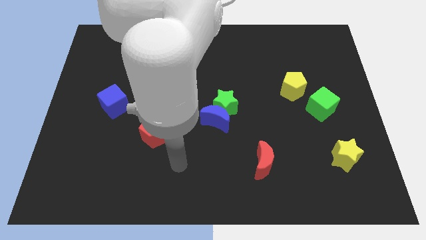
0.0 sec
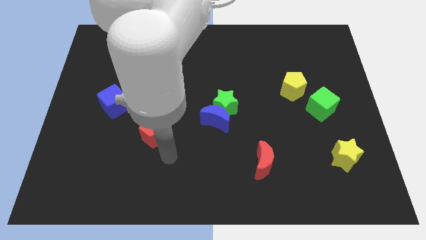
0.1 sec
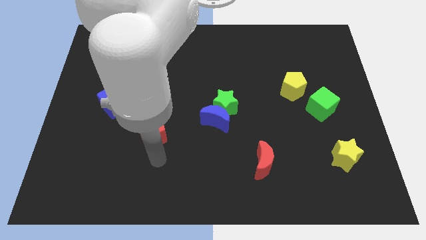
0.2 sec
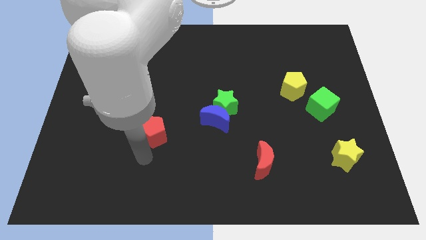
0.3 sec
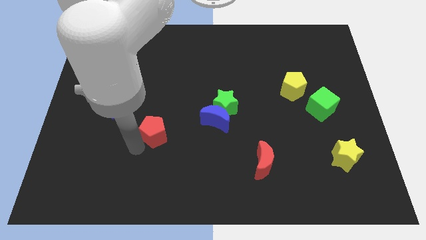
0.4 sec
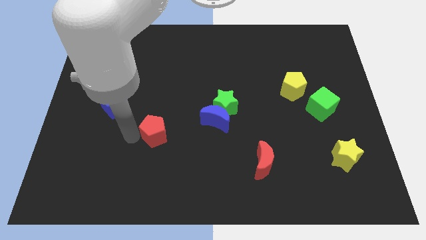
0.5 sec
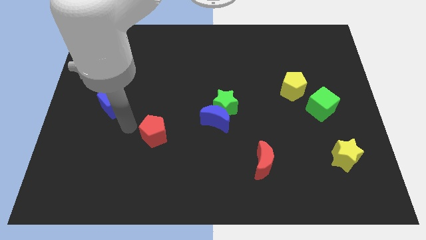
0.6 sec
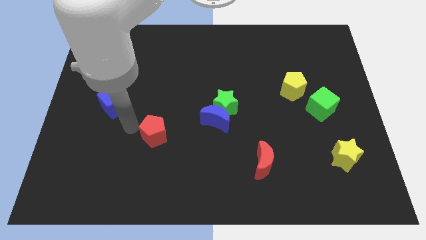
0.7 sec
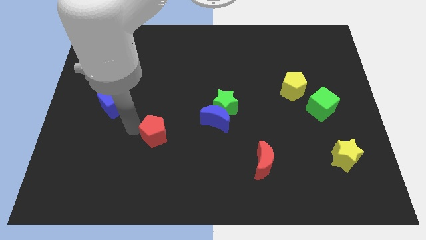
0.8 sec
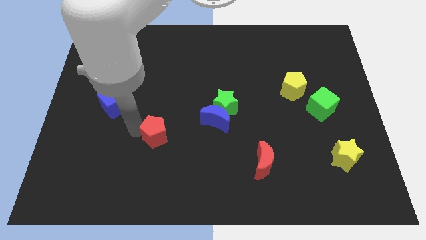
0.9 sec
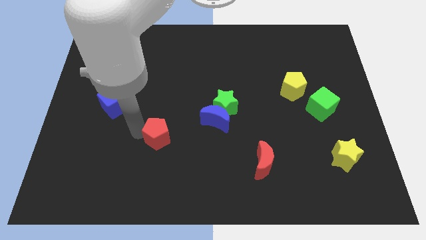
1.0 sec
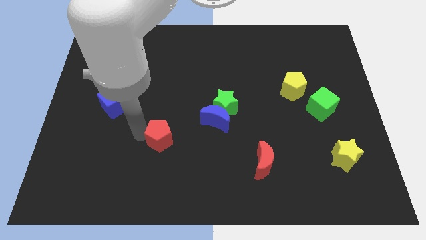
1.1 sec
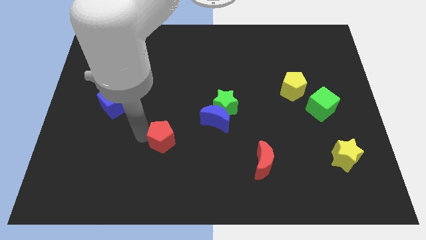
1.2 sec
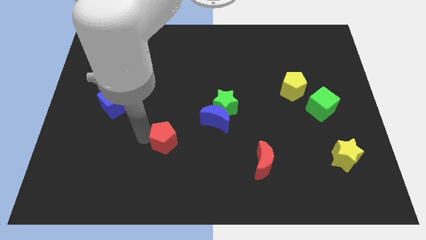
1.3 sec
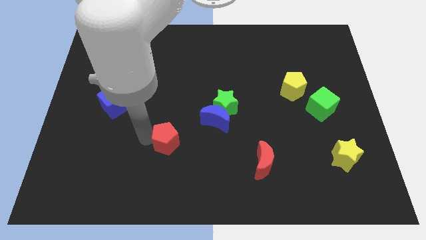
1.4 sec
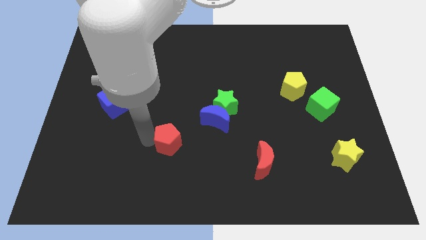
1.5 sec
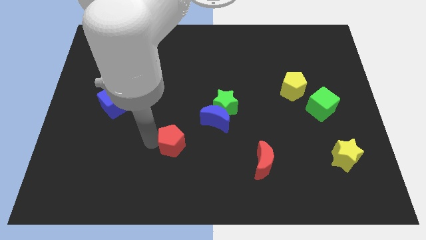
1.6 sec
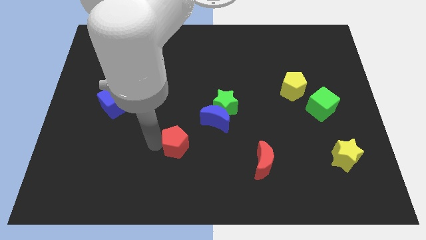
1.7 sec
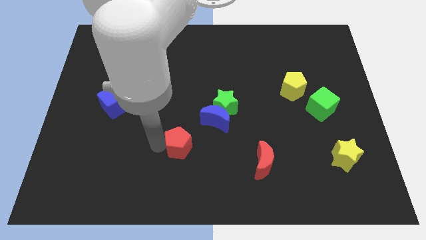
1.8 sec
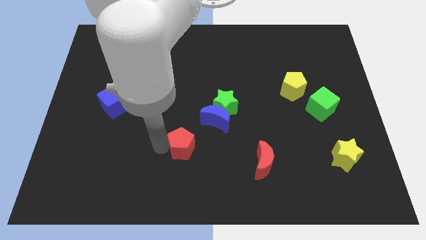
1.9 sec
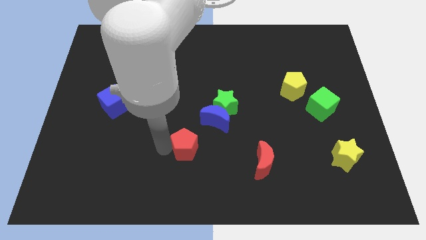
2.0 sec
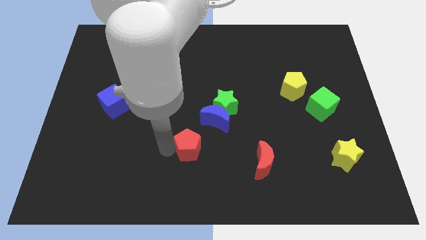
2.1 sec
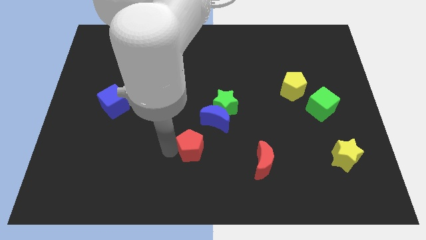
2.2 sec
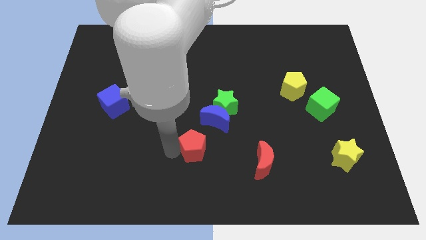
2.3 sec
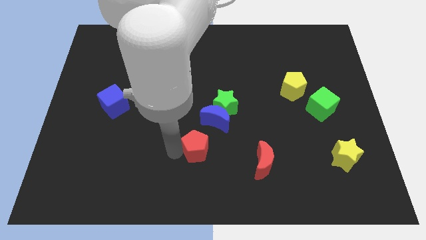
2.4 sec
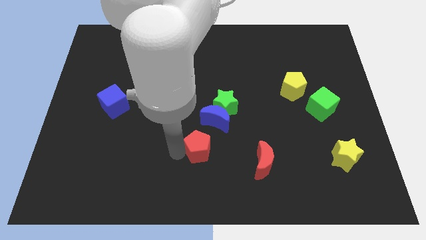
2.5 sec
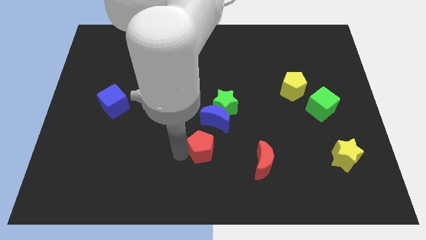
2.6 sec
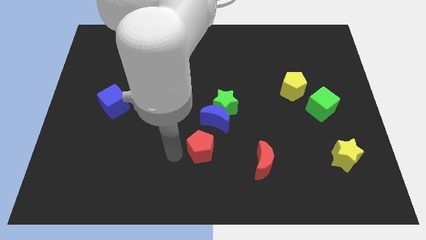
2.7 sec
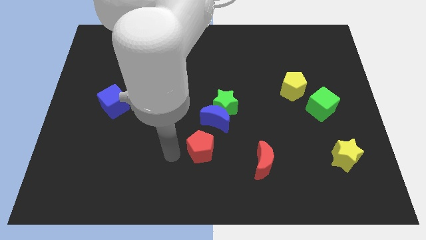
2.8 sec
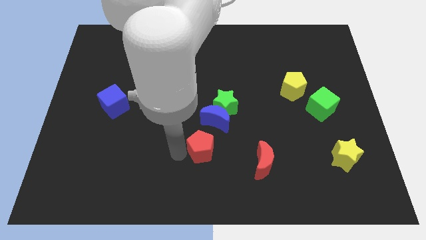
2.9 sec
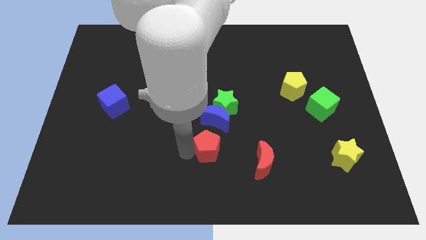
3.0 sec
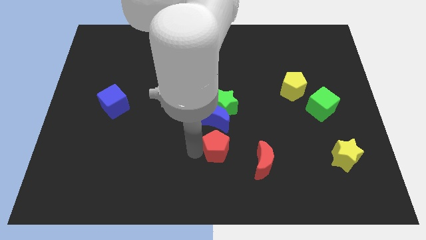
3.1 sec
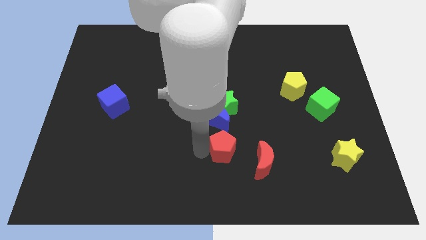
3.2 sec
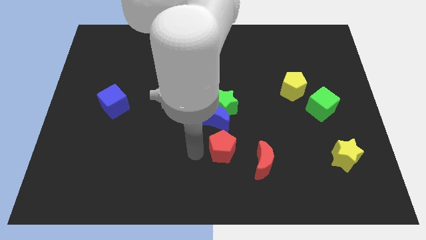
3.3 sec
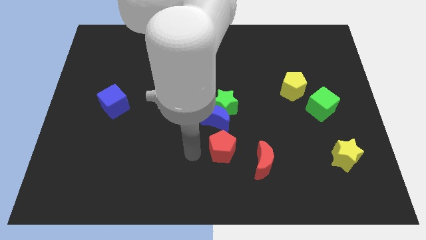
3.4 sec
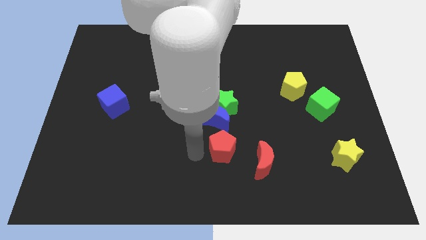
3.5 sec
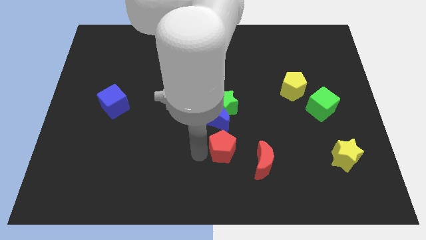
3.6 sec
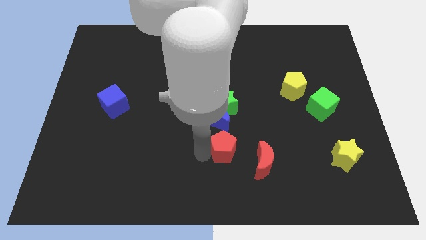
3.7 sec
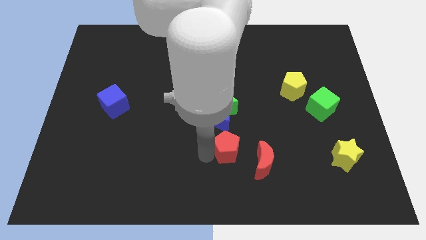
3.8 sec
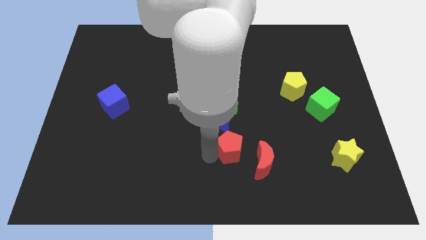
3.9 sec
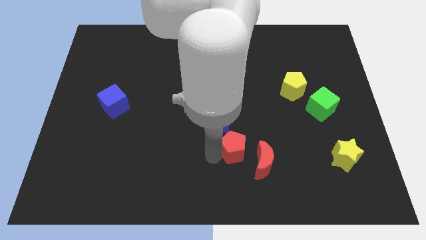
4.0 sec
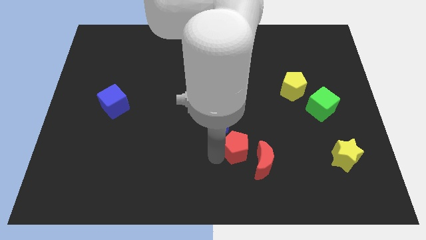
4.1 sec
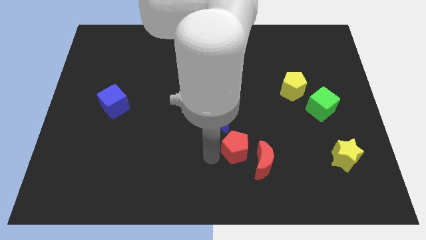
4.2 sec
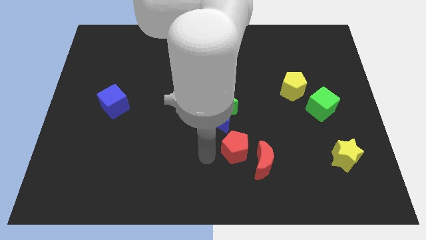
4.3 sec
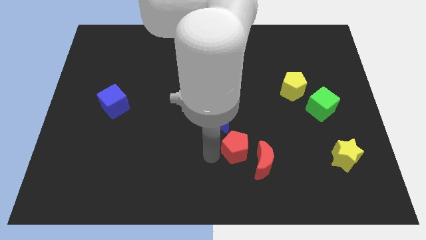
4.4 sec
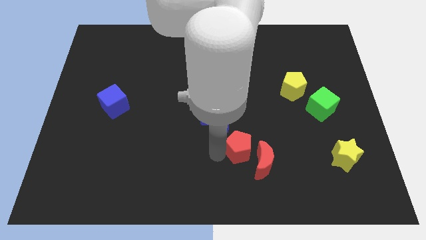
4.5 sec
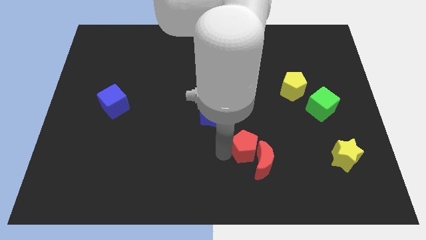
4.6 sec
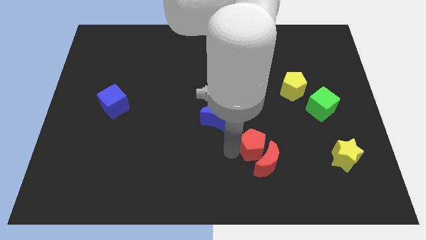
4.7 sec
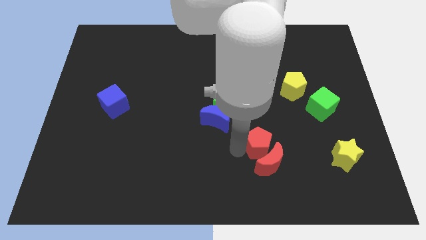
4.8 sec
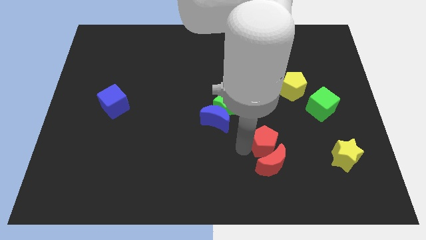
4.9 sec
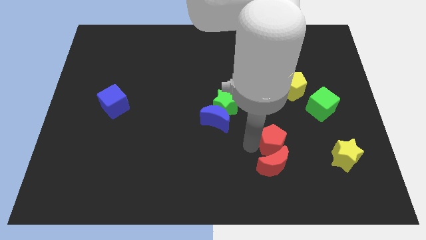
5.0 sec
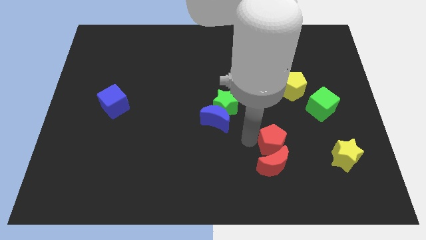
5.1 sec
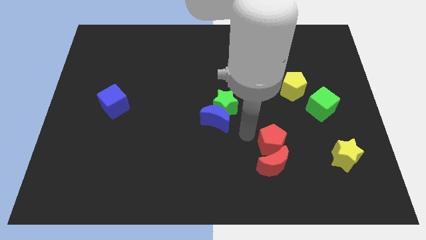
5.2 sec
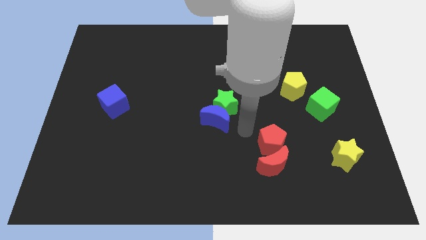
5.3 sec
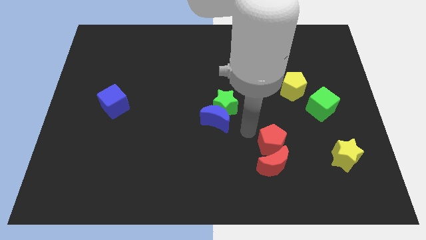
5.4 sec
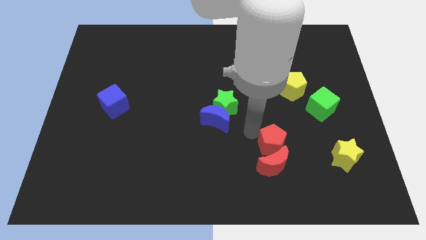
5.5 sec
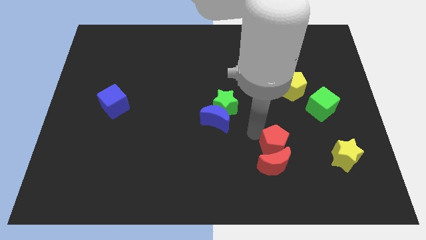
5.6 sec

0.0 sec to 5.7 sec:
slide the red pentagon left of the yellow star

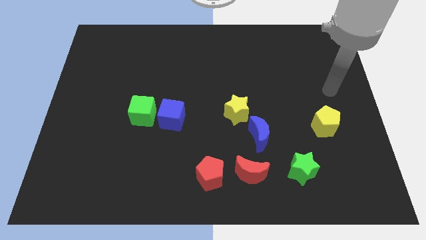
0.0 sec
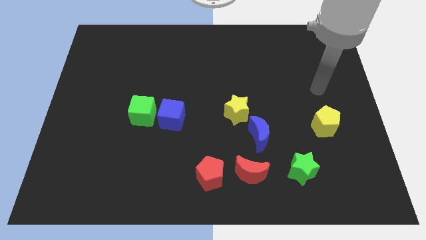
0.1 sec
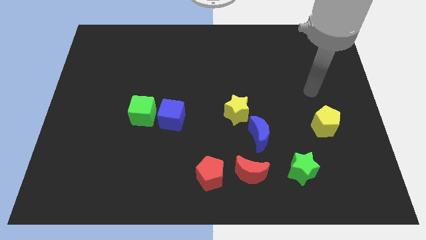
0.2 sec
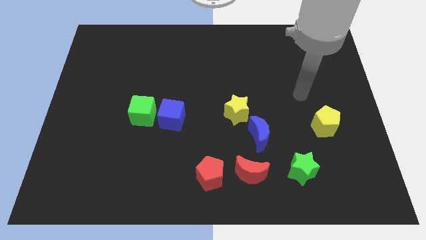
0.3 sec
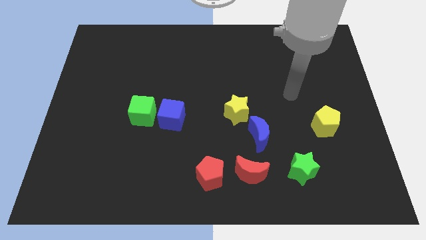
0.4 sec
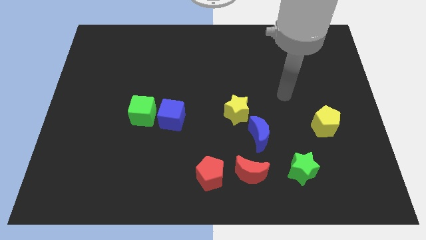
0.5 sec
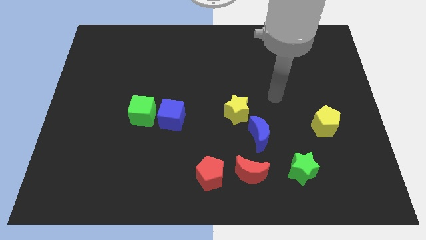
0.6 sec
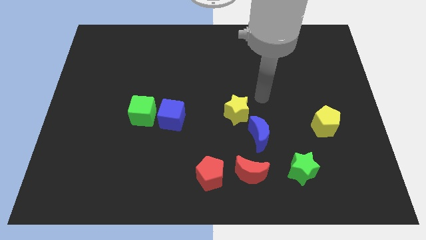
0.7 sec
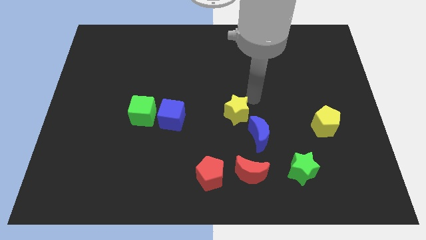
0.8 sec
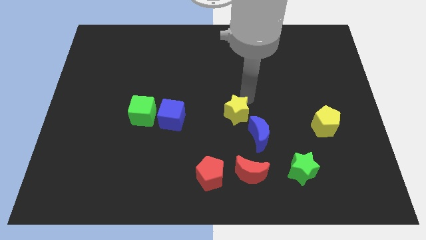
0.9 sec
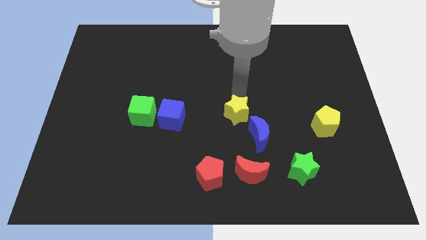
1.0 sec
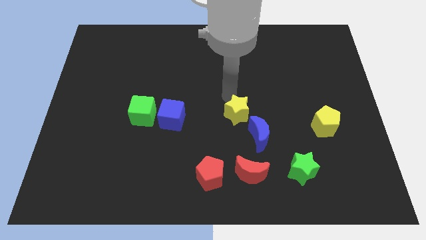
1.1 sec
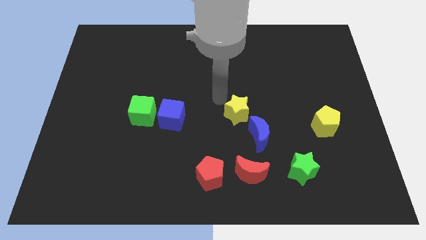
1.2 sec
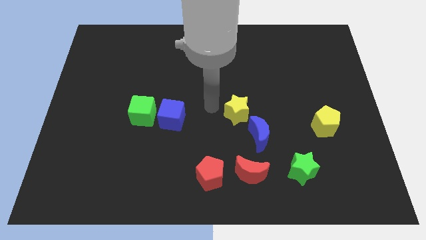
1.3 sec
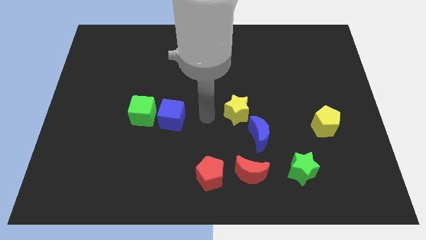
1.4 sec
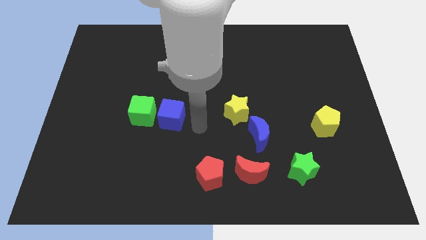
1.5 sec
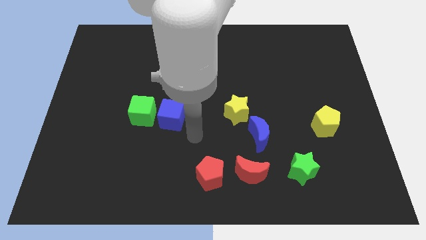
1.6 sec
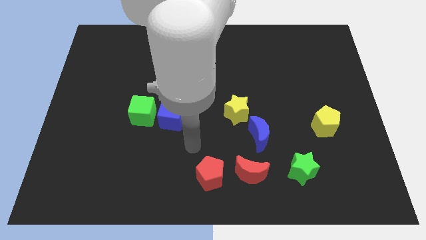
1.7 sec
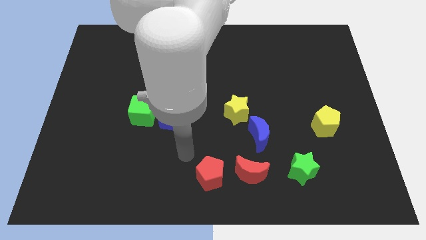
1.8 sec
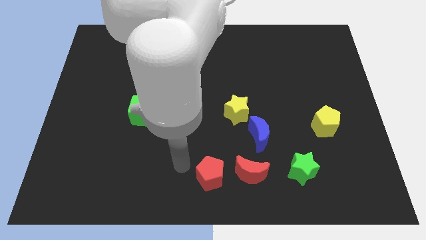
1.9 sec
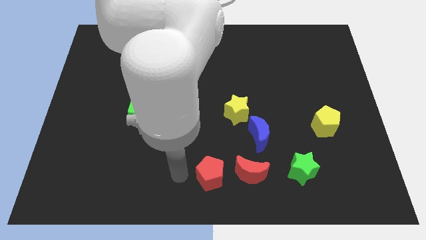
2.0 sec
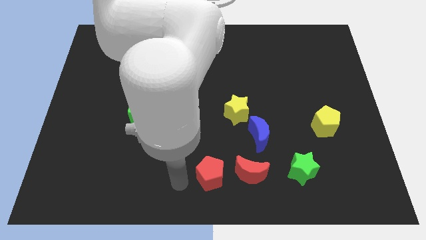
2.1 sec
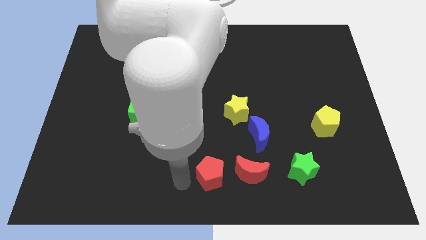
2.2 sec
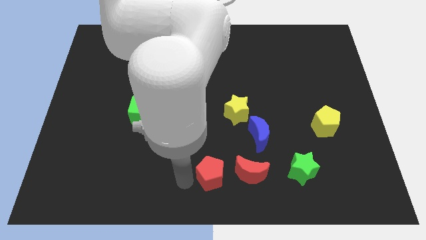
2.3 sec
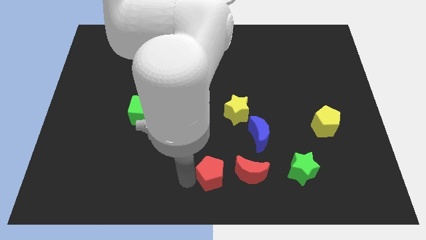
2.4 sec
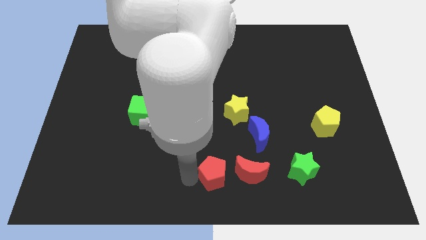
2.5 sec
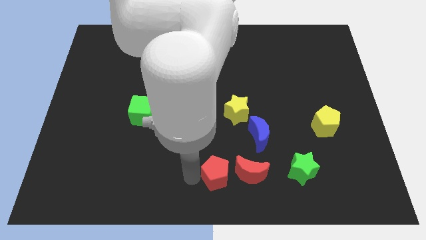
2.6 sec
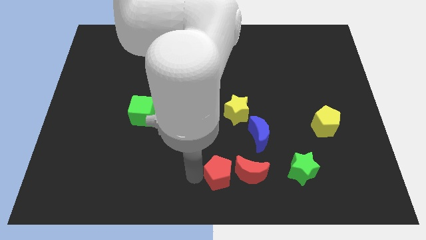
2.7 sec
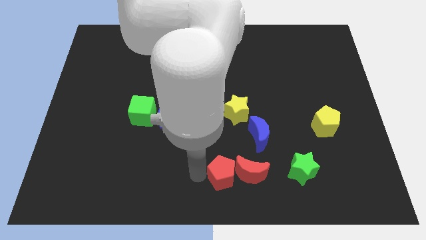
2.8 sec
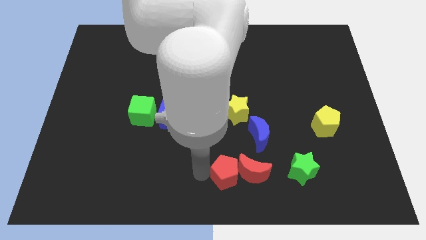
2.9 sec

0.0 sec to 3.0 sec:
slide the red pentagon left of the green star
